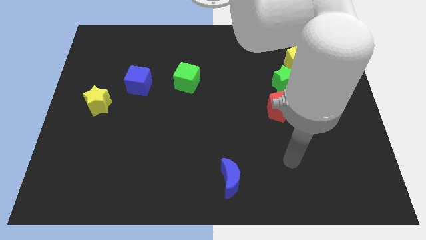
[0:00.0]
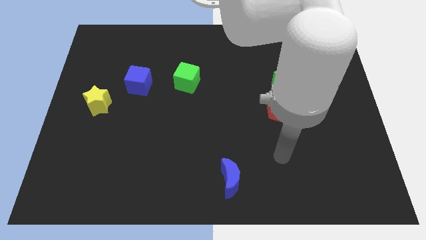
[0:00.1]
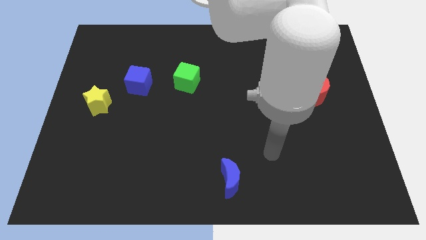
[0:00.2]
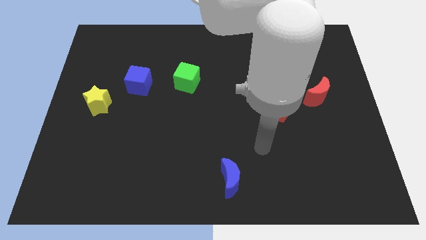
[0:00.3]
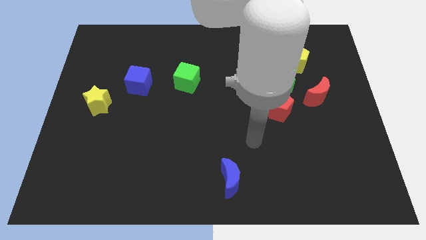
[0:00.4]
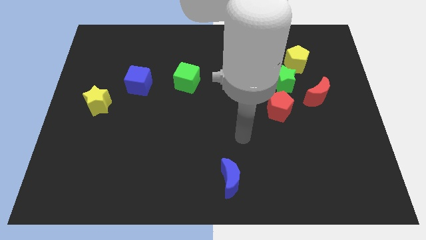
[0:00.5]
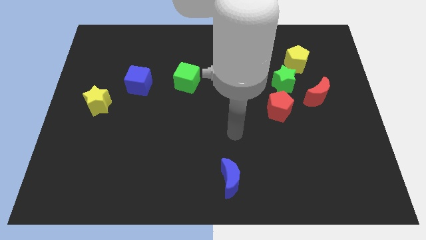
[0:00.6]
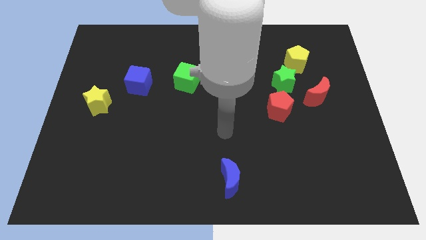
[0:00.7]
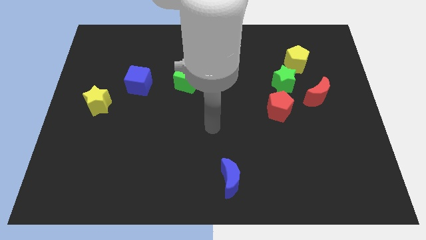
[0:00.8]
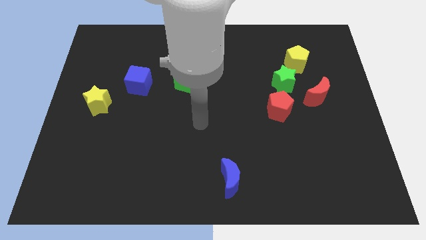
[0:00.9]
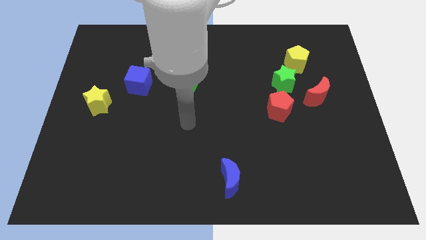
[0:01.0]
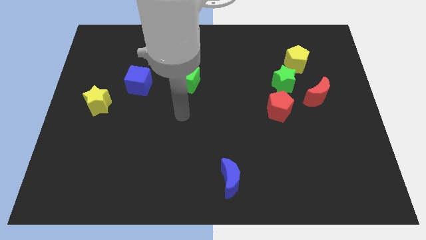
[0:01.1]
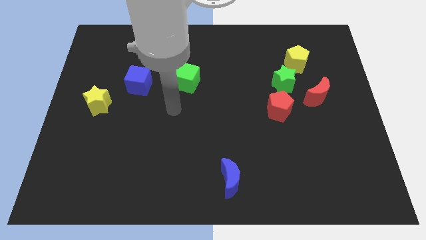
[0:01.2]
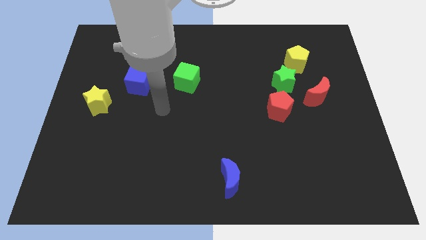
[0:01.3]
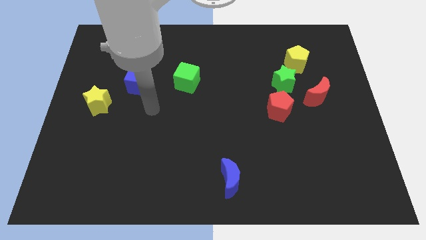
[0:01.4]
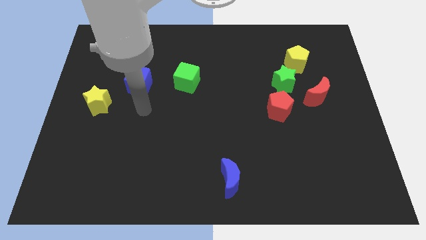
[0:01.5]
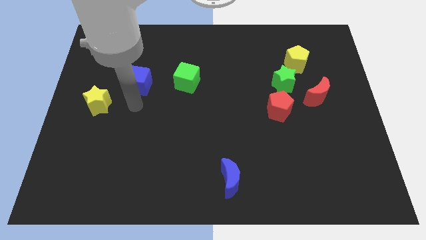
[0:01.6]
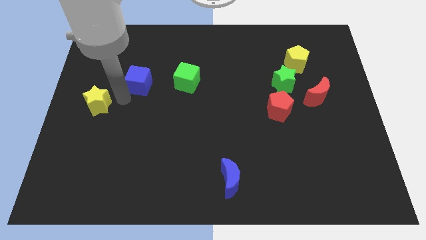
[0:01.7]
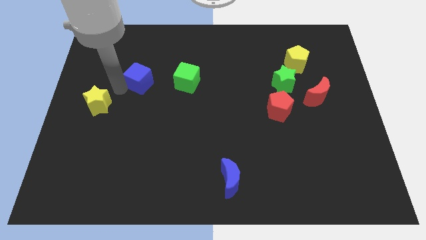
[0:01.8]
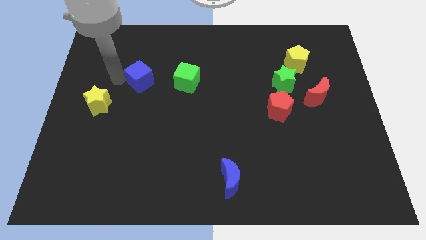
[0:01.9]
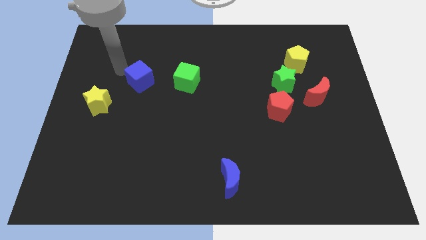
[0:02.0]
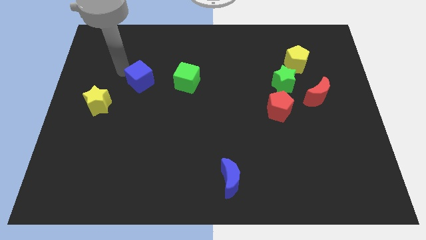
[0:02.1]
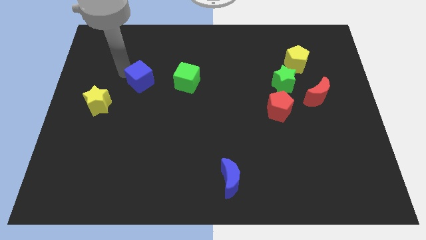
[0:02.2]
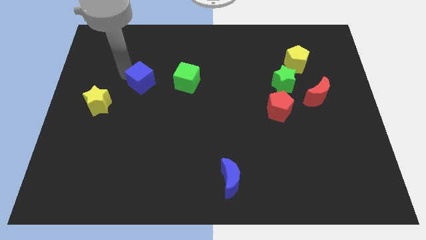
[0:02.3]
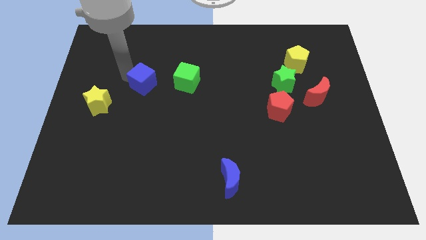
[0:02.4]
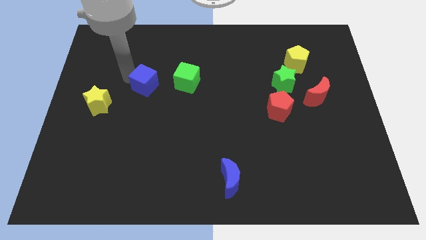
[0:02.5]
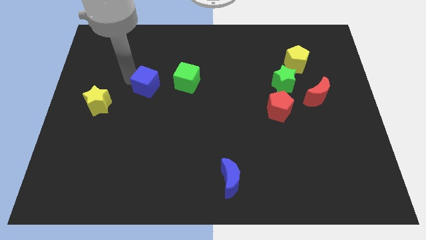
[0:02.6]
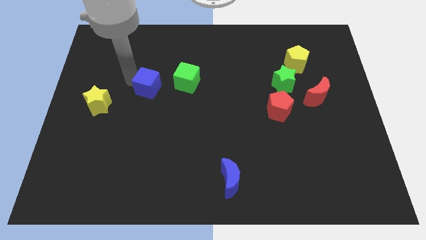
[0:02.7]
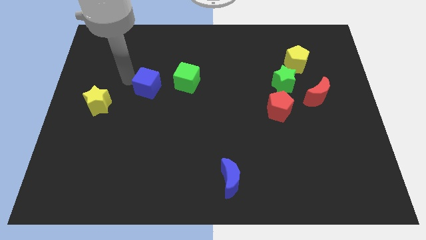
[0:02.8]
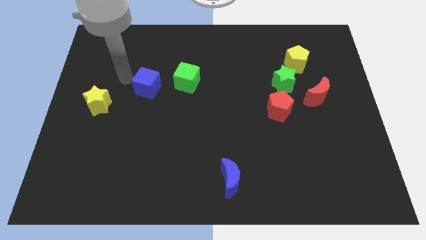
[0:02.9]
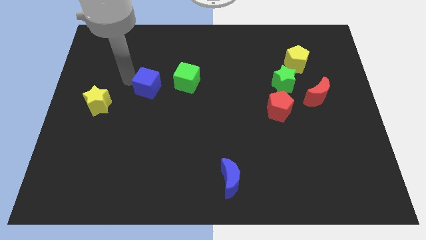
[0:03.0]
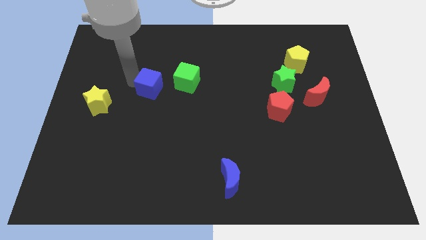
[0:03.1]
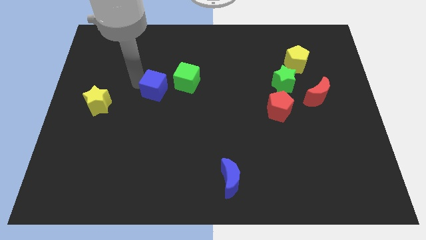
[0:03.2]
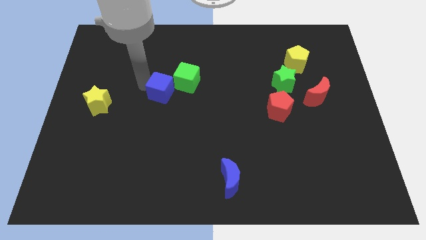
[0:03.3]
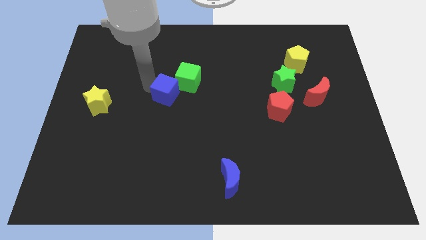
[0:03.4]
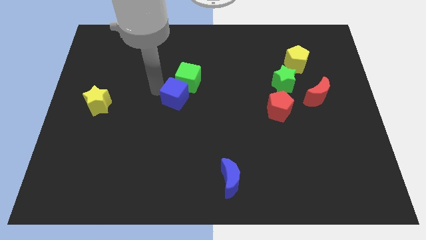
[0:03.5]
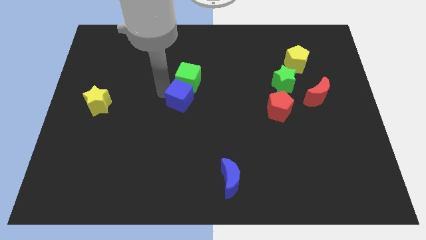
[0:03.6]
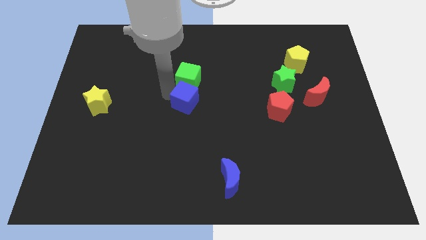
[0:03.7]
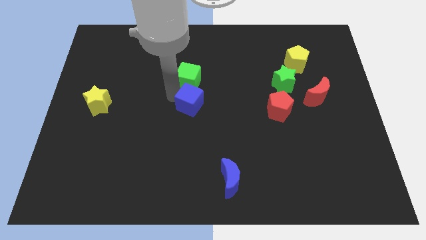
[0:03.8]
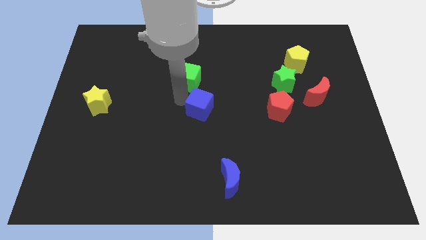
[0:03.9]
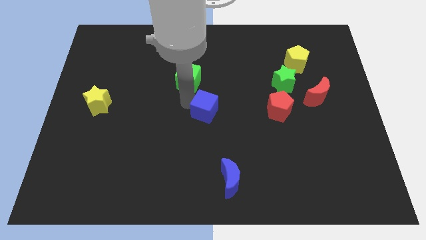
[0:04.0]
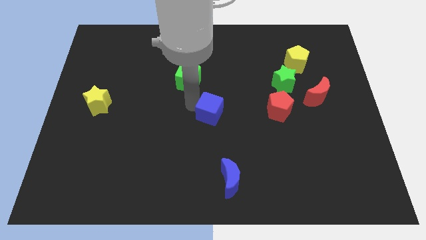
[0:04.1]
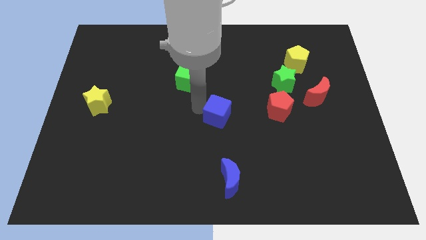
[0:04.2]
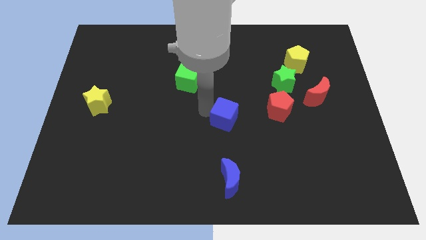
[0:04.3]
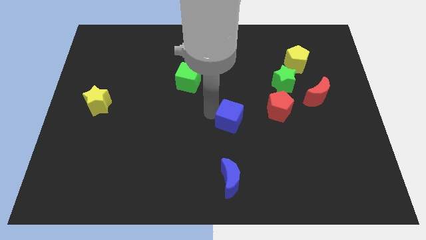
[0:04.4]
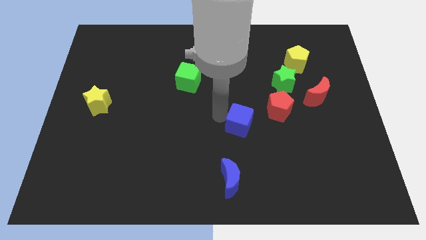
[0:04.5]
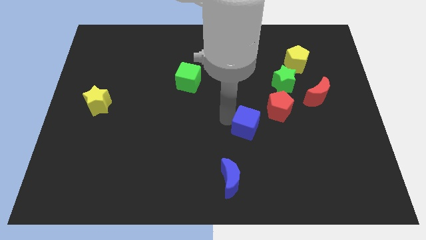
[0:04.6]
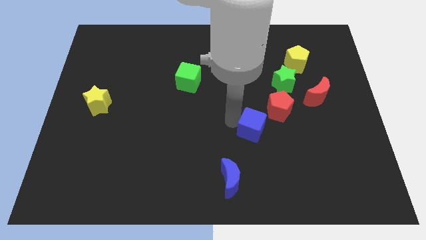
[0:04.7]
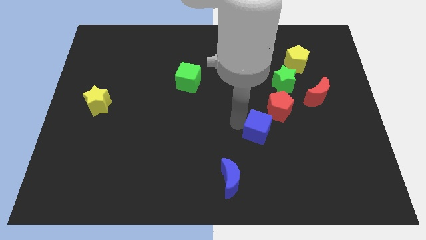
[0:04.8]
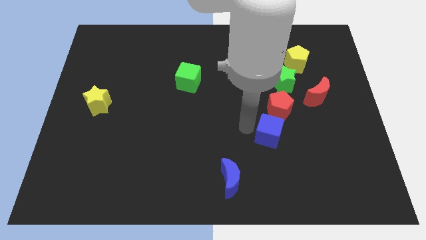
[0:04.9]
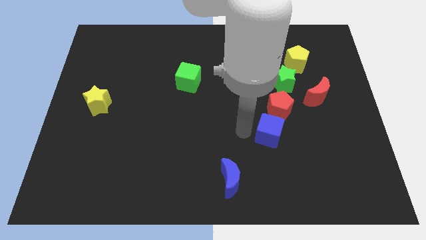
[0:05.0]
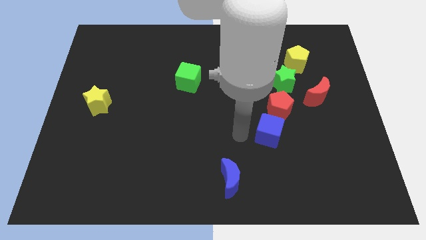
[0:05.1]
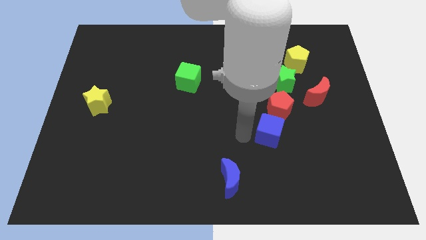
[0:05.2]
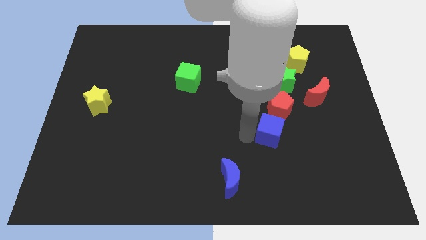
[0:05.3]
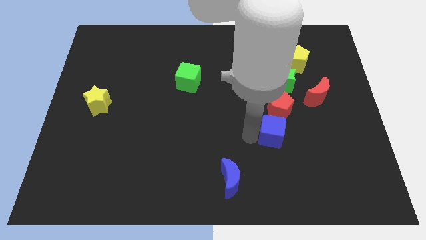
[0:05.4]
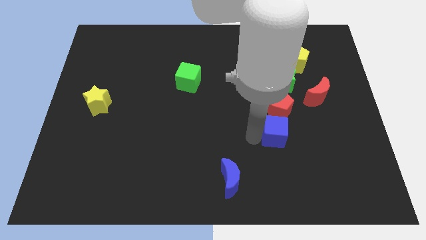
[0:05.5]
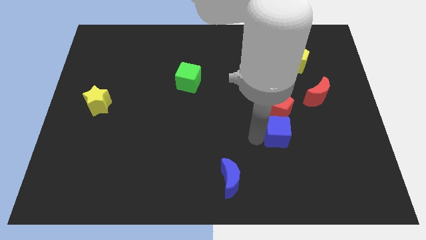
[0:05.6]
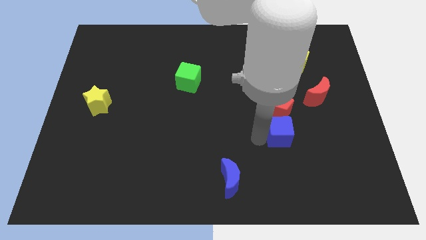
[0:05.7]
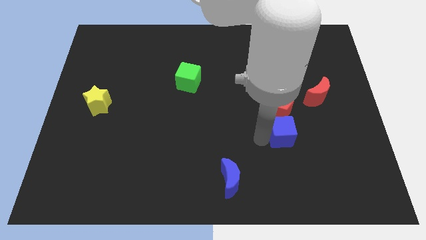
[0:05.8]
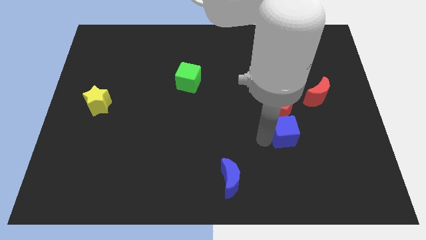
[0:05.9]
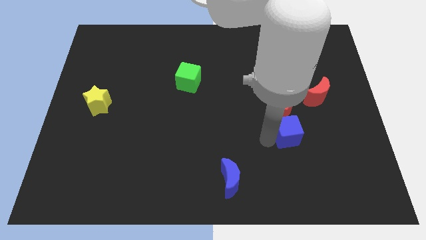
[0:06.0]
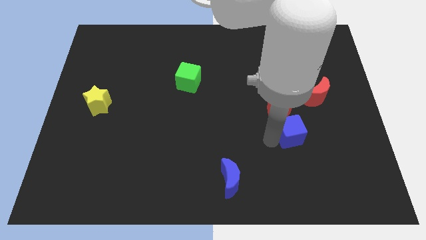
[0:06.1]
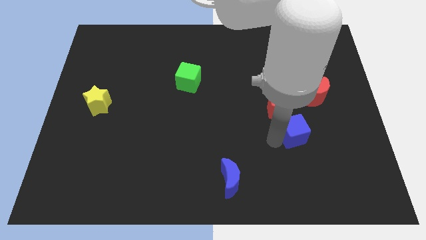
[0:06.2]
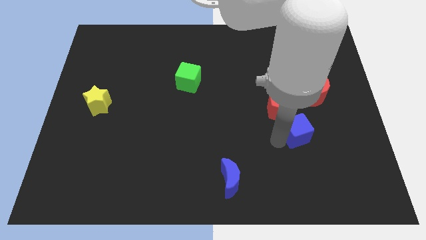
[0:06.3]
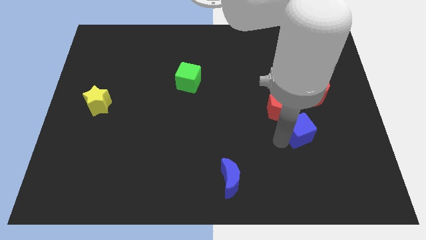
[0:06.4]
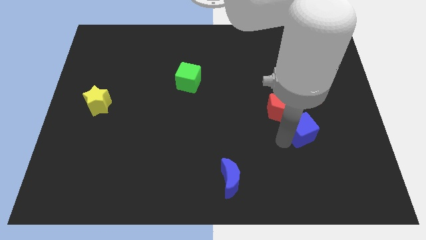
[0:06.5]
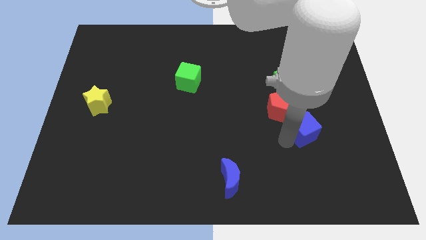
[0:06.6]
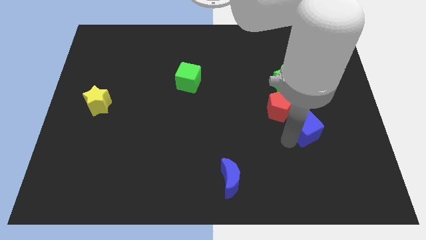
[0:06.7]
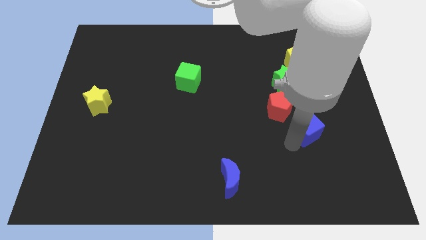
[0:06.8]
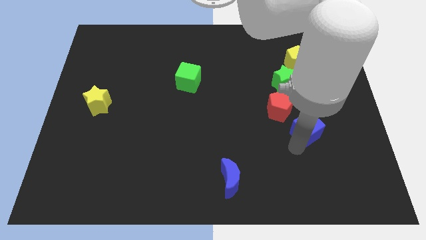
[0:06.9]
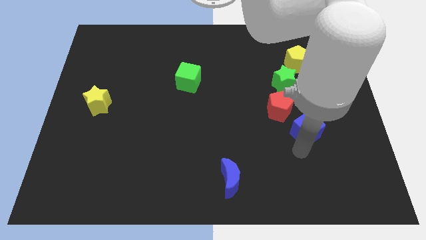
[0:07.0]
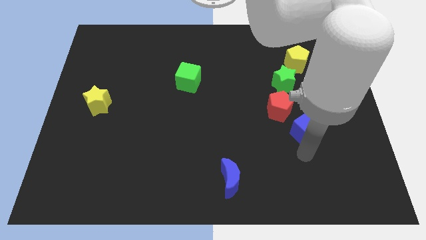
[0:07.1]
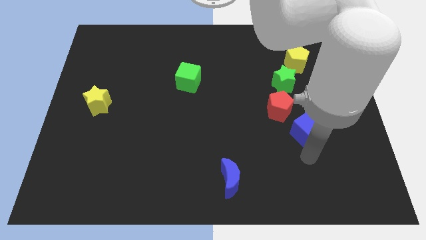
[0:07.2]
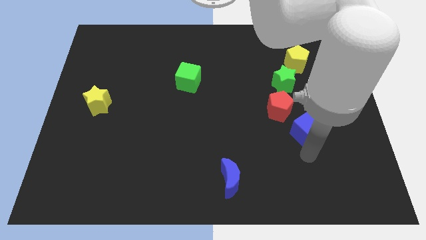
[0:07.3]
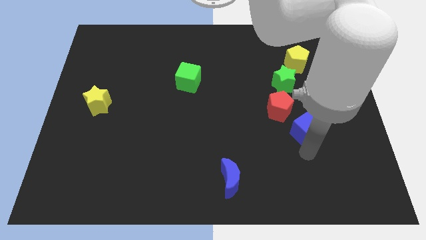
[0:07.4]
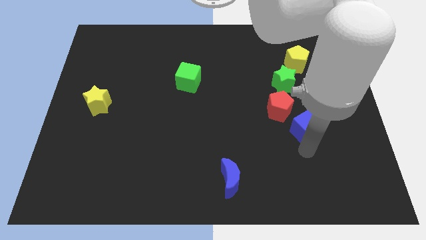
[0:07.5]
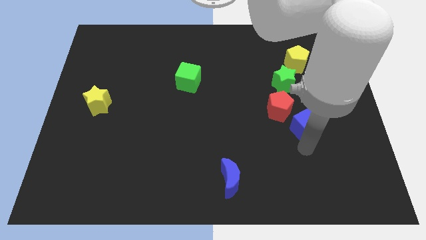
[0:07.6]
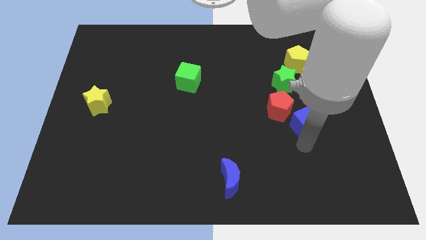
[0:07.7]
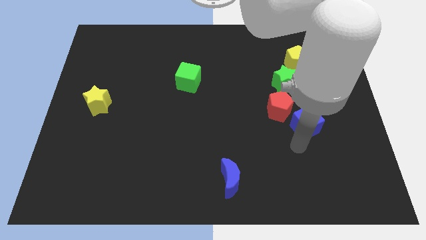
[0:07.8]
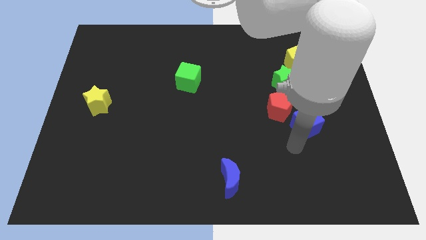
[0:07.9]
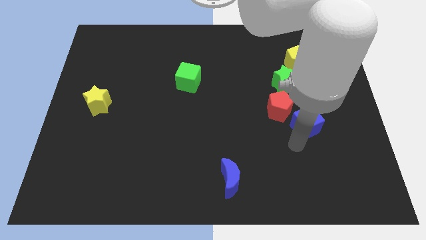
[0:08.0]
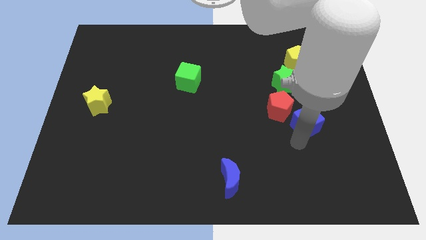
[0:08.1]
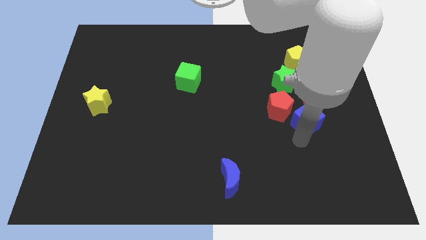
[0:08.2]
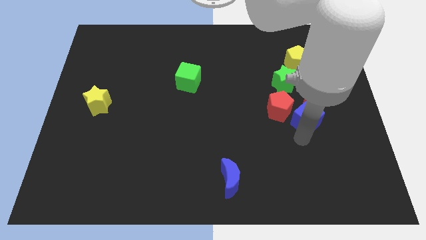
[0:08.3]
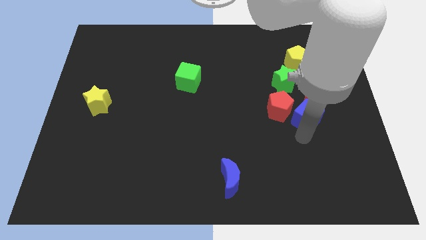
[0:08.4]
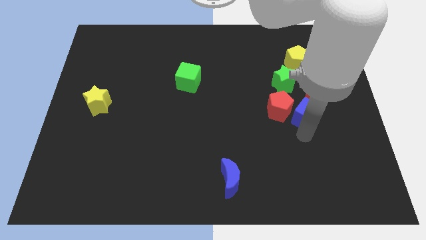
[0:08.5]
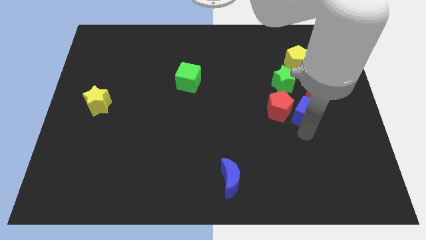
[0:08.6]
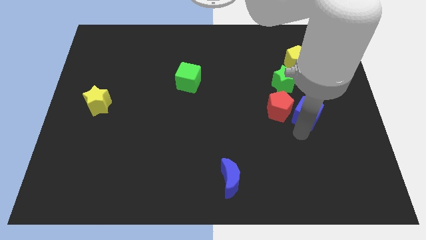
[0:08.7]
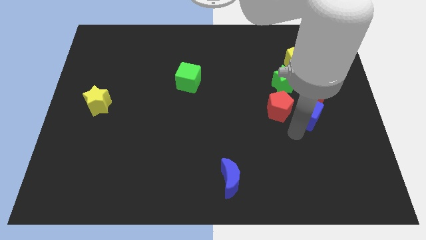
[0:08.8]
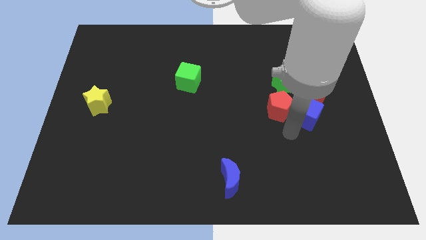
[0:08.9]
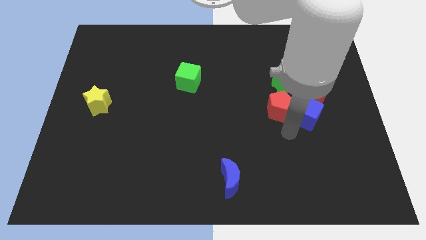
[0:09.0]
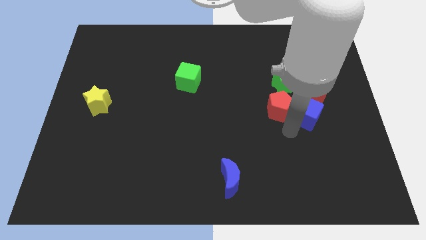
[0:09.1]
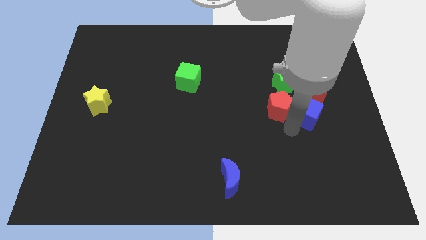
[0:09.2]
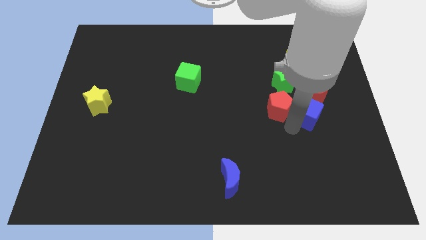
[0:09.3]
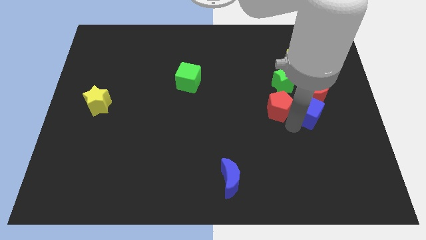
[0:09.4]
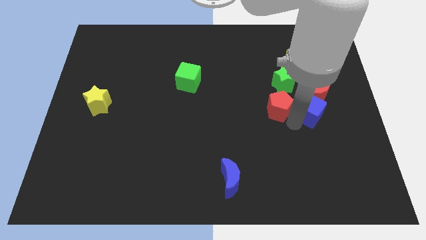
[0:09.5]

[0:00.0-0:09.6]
slide the blue cube to the red moon
